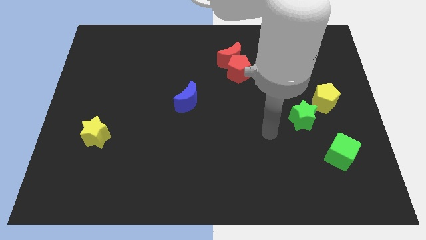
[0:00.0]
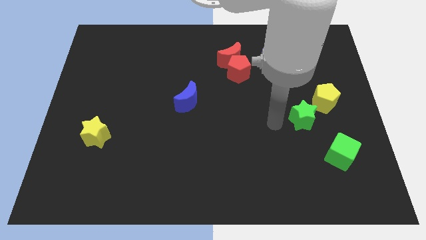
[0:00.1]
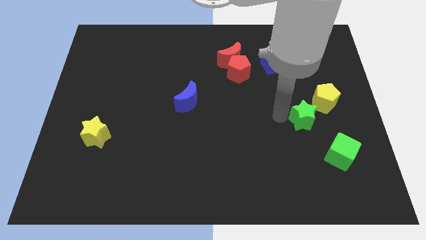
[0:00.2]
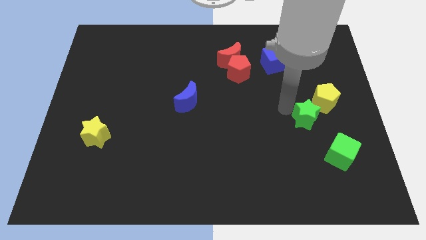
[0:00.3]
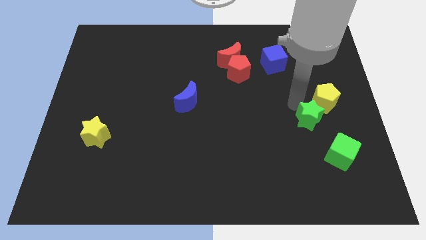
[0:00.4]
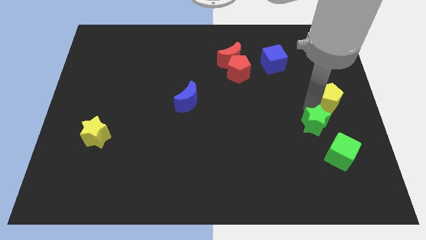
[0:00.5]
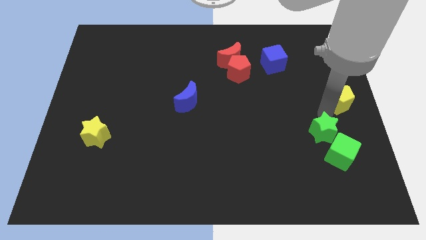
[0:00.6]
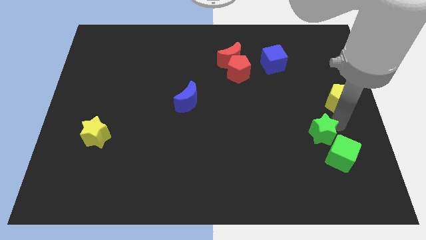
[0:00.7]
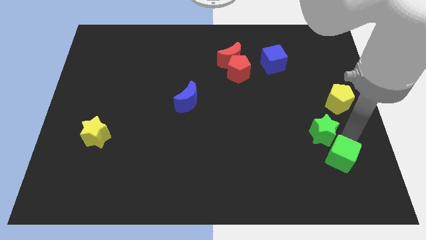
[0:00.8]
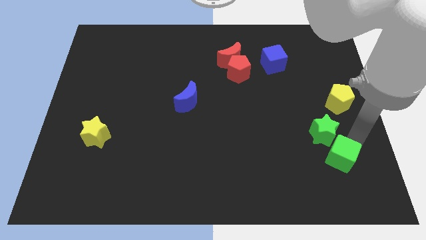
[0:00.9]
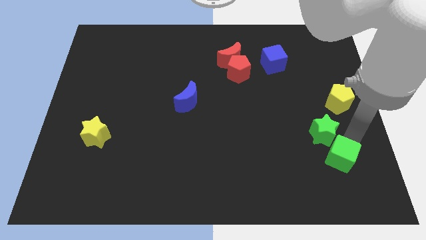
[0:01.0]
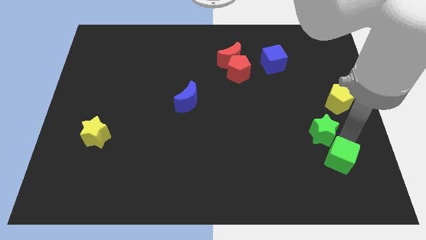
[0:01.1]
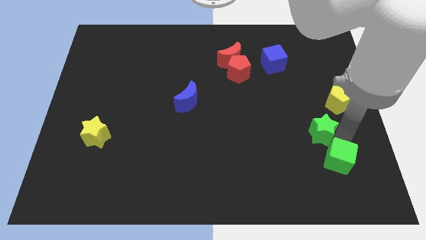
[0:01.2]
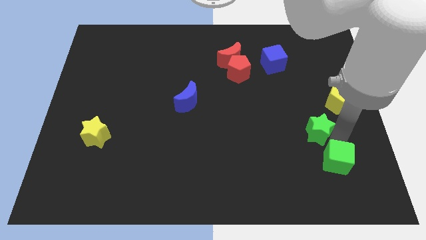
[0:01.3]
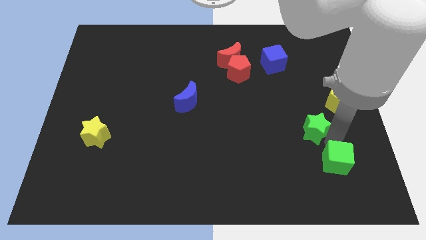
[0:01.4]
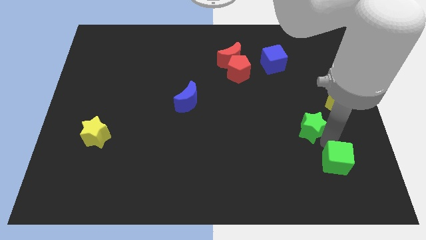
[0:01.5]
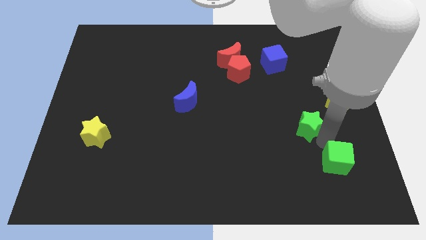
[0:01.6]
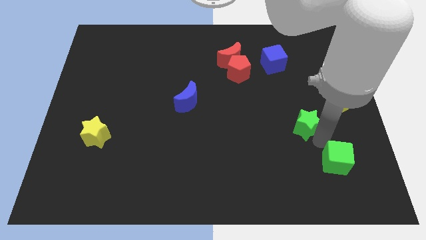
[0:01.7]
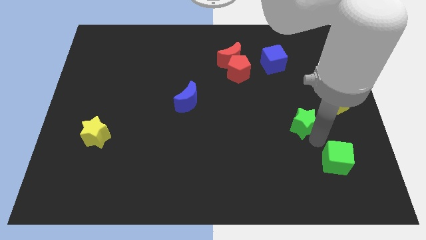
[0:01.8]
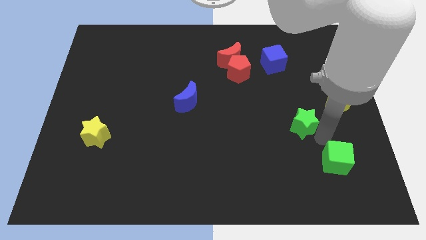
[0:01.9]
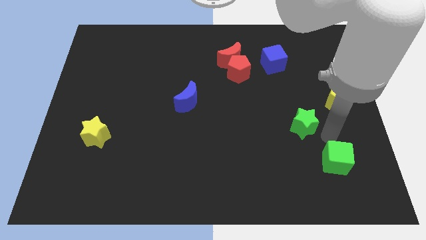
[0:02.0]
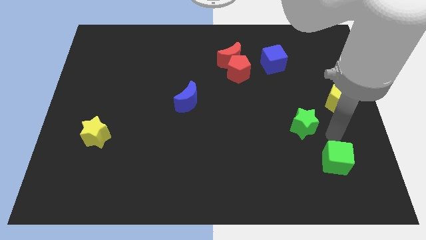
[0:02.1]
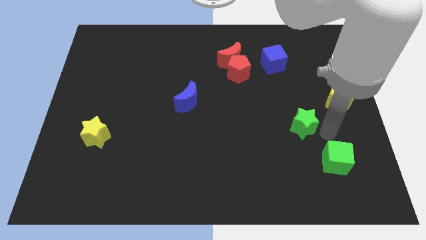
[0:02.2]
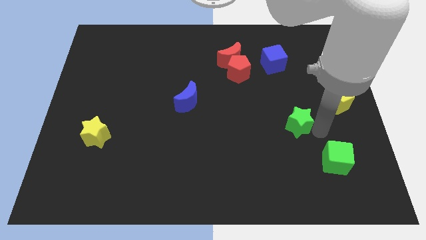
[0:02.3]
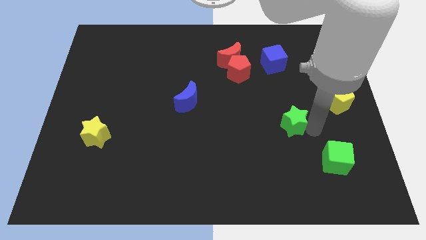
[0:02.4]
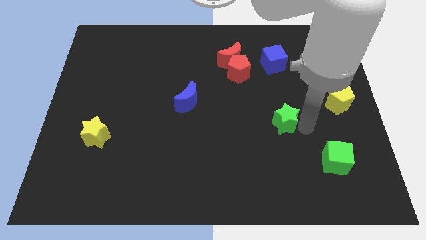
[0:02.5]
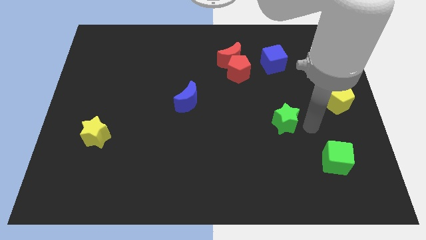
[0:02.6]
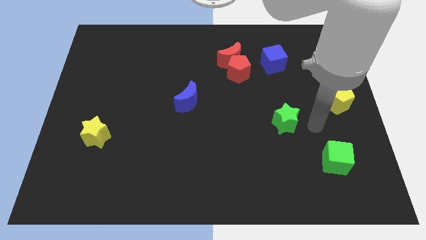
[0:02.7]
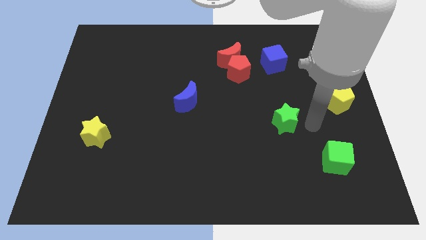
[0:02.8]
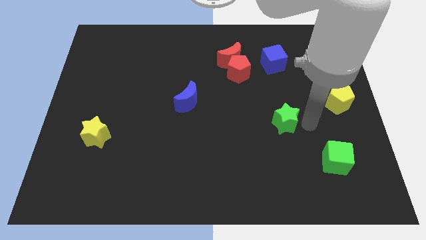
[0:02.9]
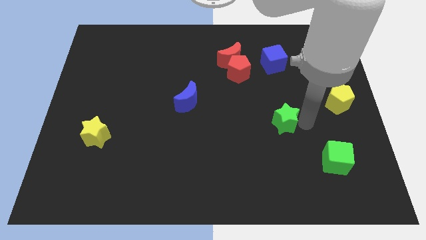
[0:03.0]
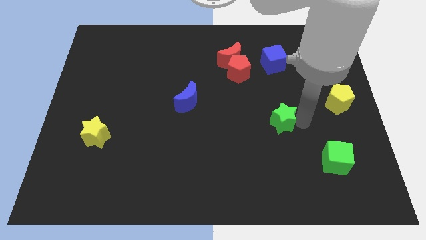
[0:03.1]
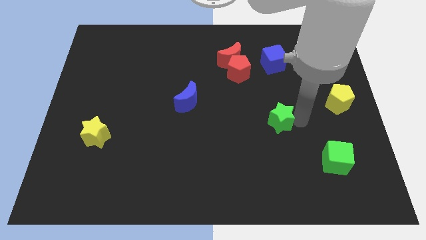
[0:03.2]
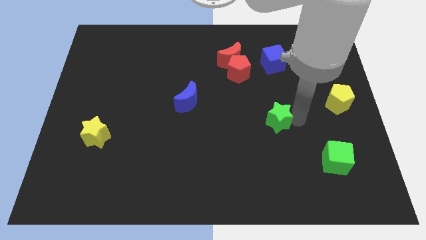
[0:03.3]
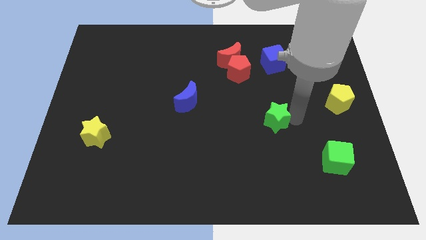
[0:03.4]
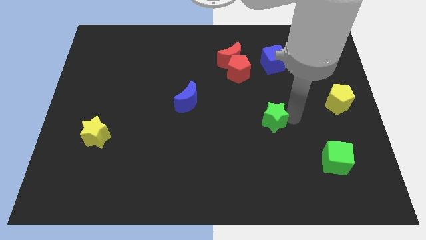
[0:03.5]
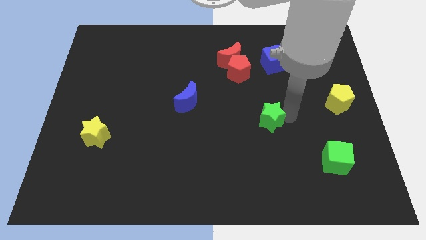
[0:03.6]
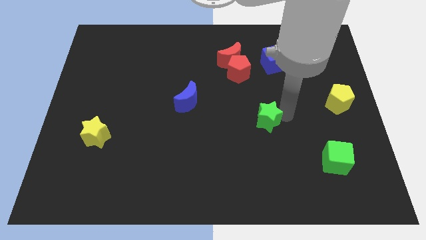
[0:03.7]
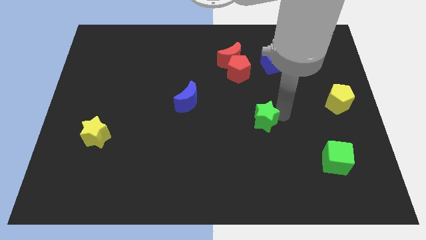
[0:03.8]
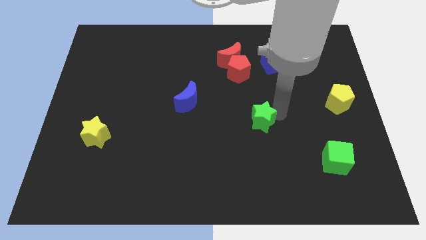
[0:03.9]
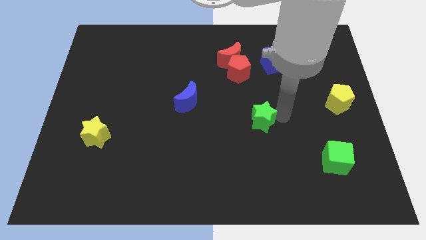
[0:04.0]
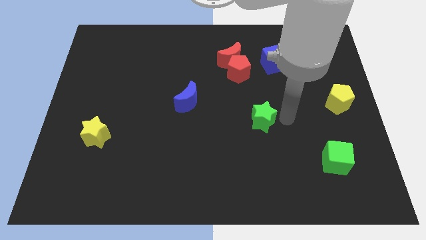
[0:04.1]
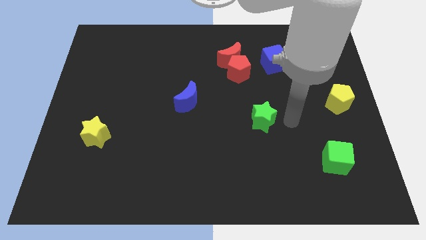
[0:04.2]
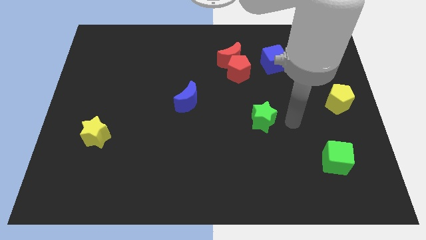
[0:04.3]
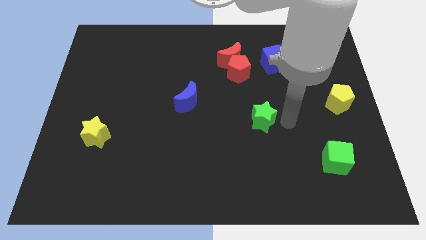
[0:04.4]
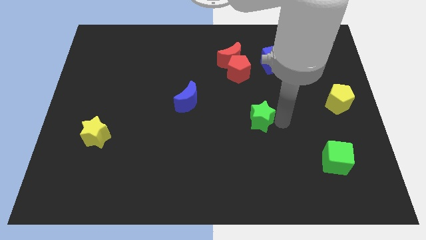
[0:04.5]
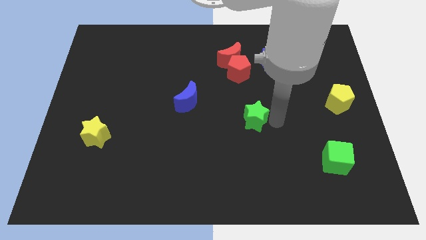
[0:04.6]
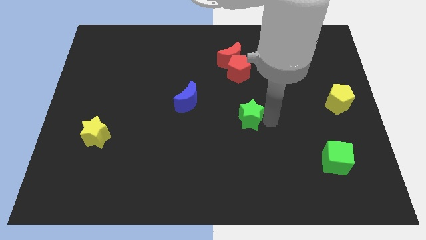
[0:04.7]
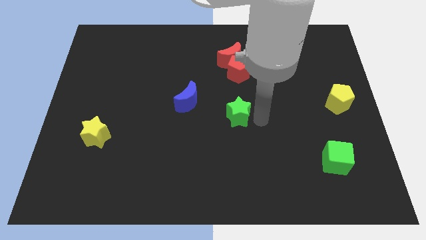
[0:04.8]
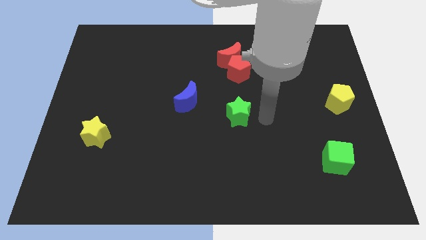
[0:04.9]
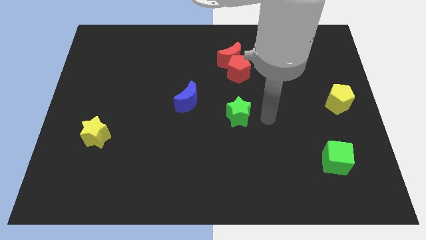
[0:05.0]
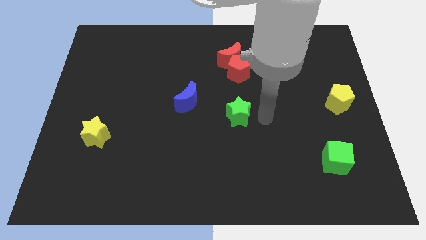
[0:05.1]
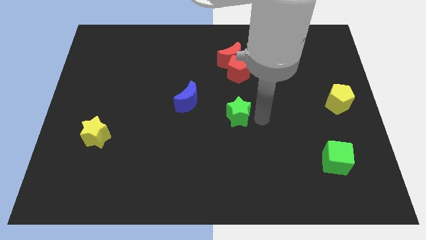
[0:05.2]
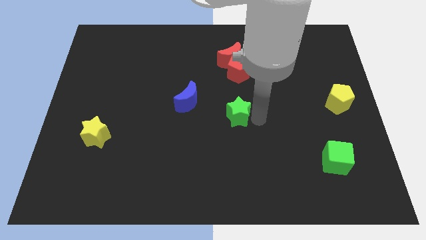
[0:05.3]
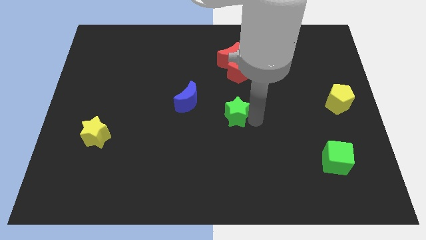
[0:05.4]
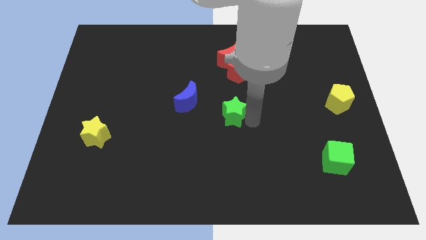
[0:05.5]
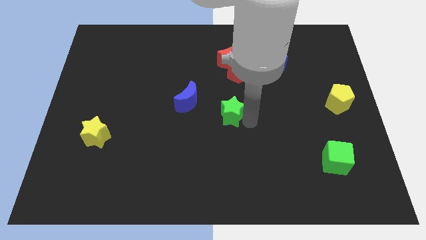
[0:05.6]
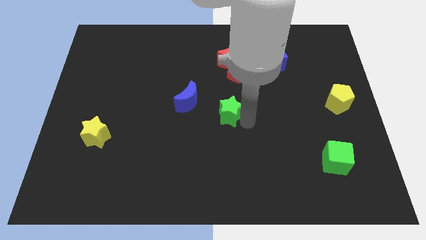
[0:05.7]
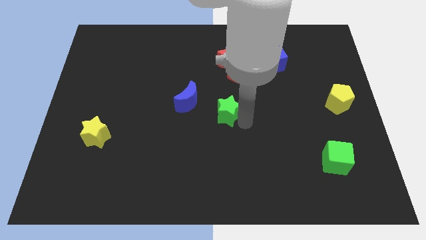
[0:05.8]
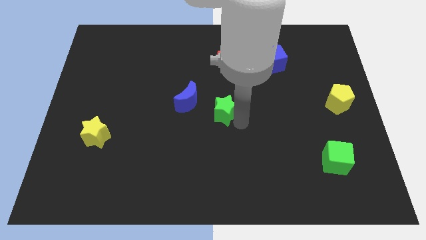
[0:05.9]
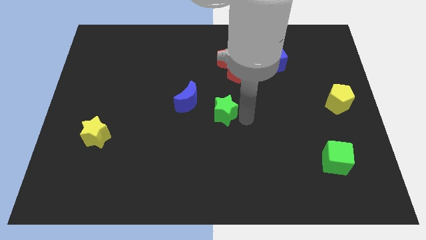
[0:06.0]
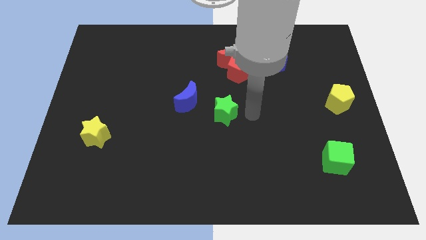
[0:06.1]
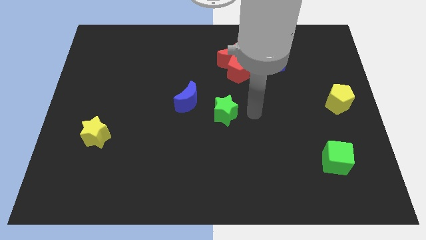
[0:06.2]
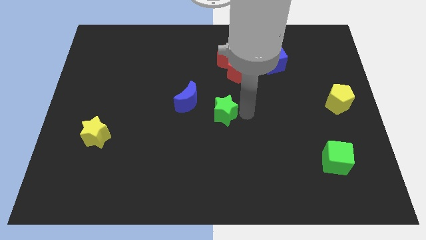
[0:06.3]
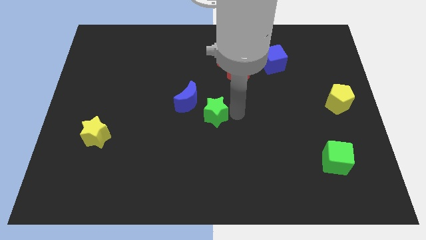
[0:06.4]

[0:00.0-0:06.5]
move the green star left

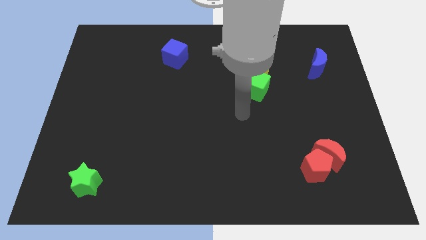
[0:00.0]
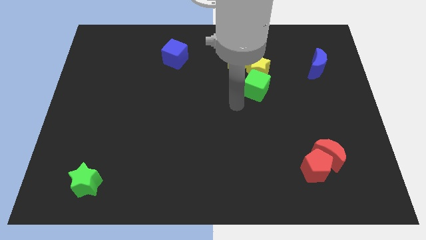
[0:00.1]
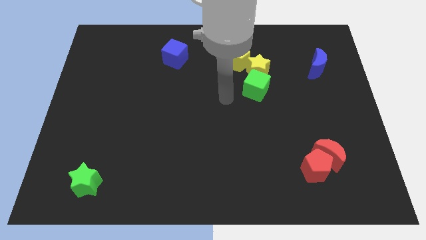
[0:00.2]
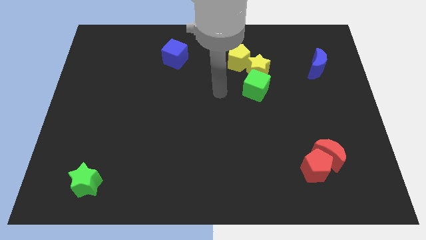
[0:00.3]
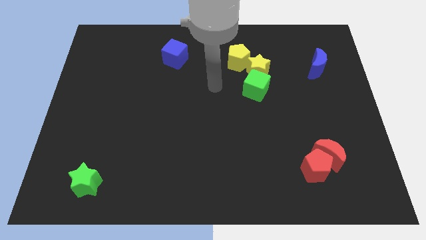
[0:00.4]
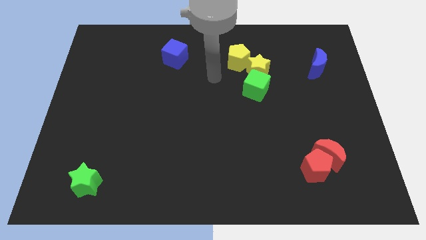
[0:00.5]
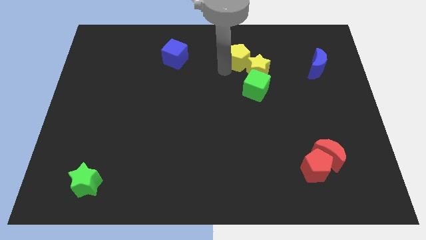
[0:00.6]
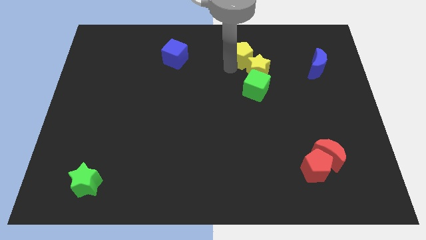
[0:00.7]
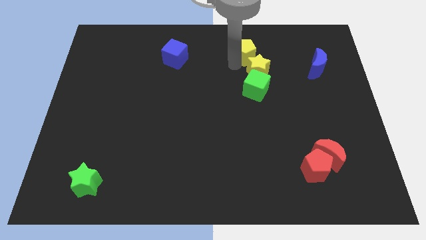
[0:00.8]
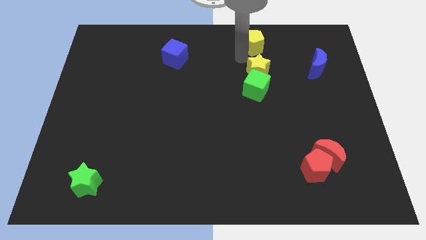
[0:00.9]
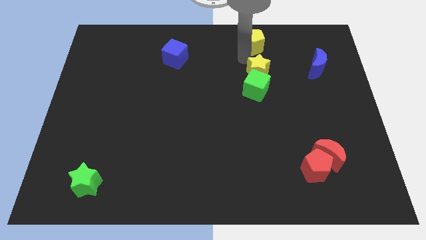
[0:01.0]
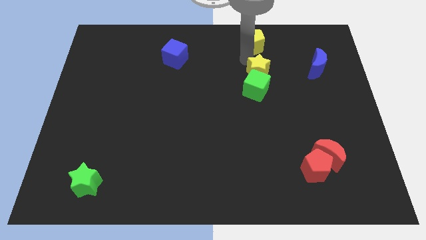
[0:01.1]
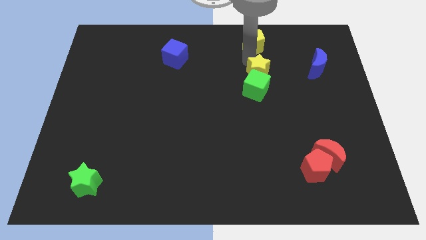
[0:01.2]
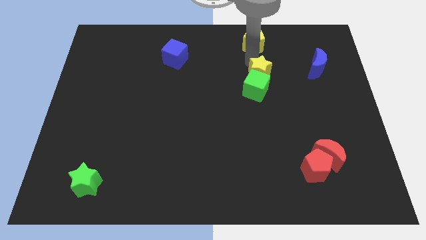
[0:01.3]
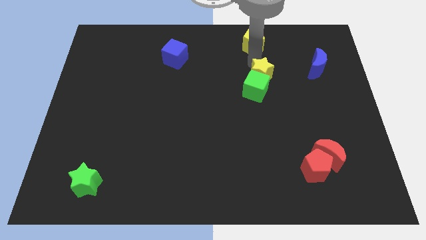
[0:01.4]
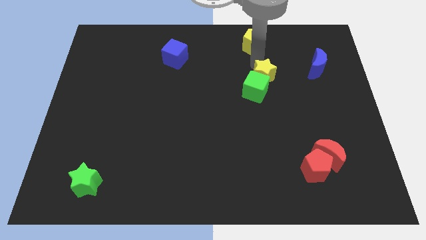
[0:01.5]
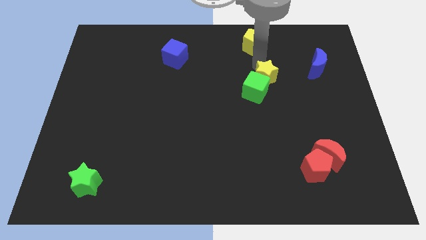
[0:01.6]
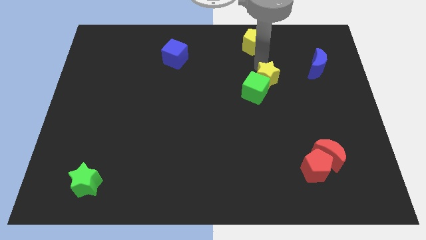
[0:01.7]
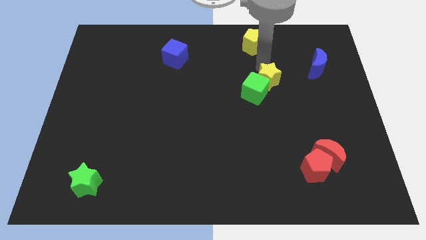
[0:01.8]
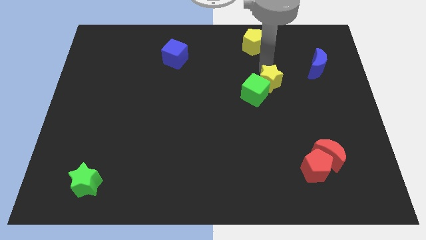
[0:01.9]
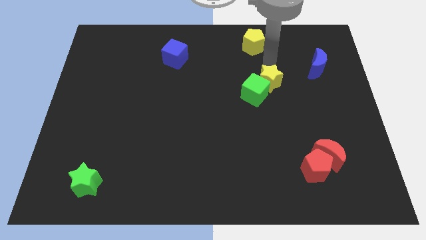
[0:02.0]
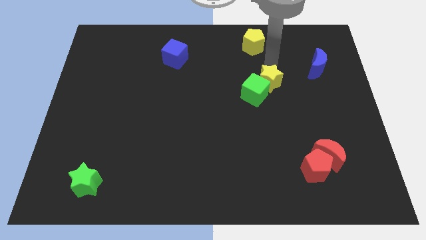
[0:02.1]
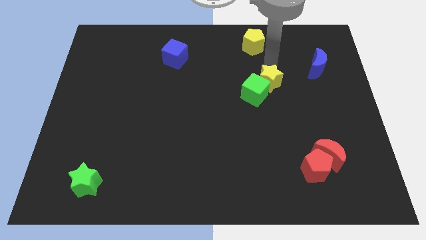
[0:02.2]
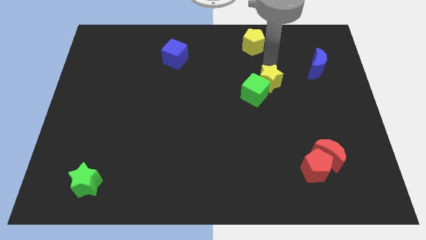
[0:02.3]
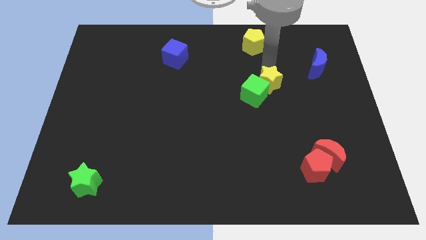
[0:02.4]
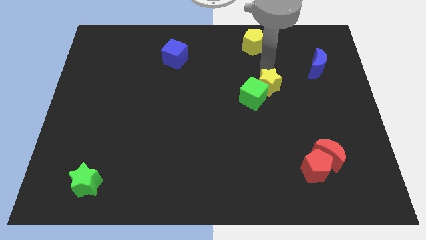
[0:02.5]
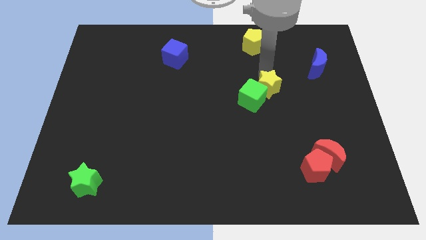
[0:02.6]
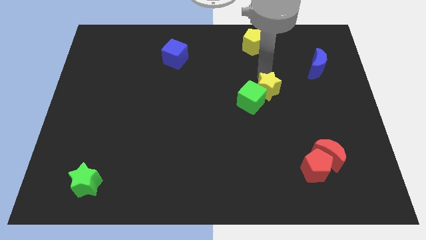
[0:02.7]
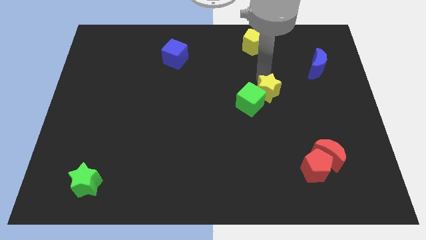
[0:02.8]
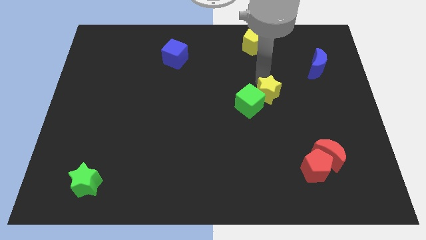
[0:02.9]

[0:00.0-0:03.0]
push the yellow star a little downwards
